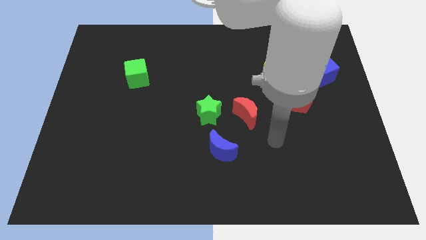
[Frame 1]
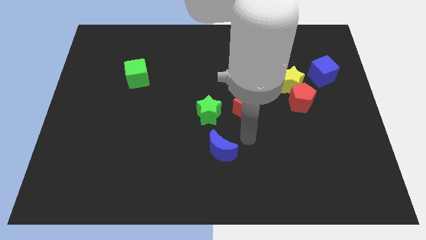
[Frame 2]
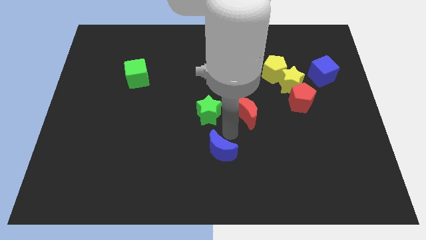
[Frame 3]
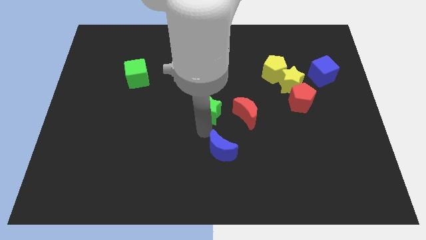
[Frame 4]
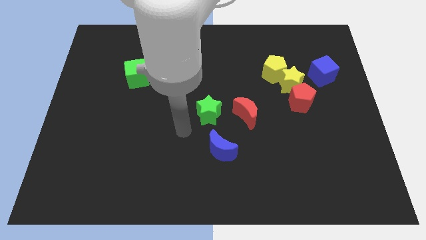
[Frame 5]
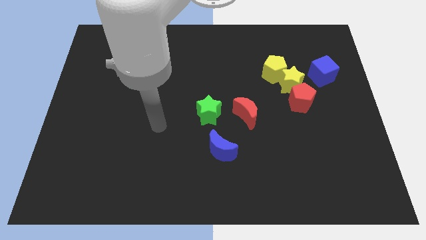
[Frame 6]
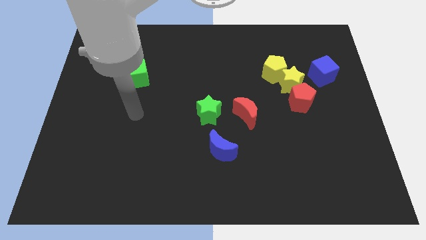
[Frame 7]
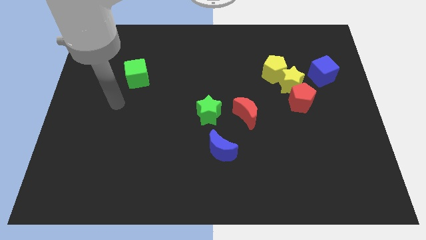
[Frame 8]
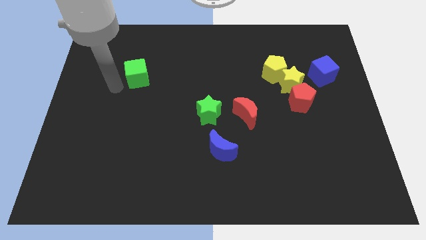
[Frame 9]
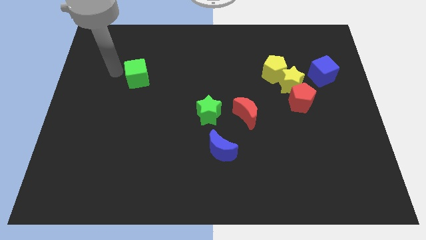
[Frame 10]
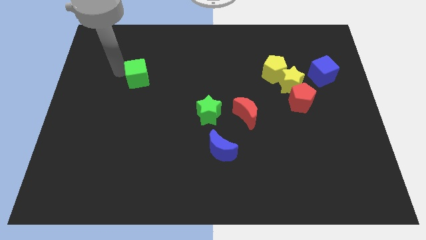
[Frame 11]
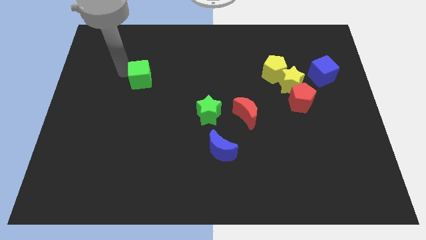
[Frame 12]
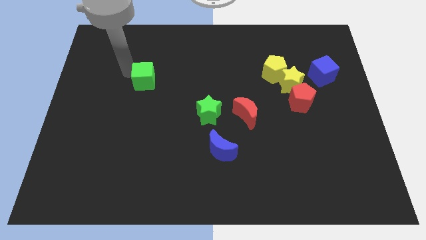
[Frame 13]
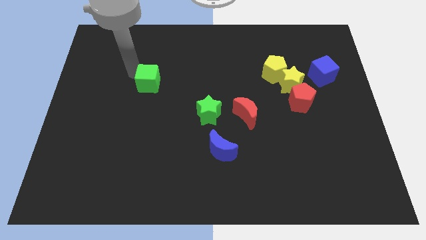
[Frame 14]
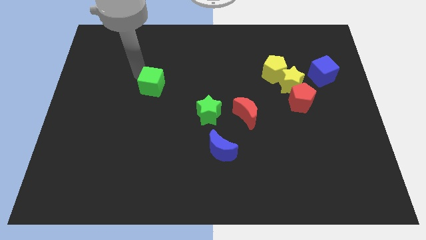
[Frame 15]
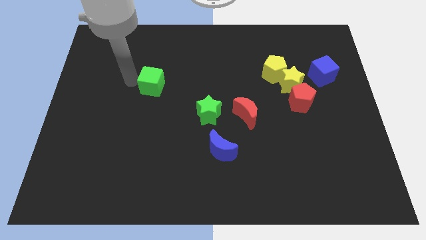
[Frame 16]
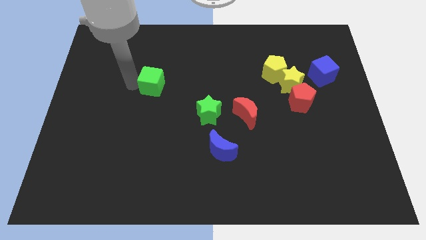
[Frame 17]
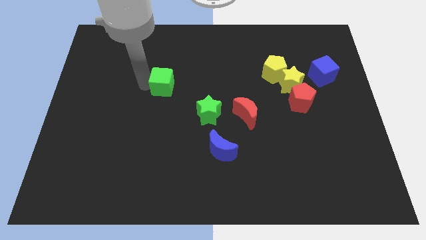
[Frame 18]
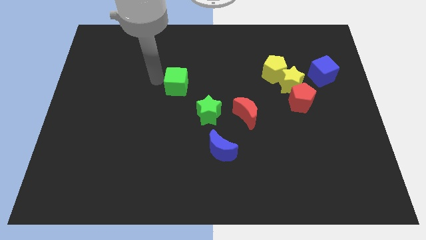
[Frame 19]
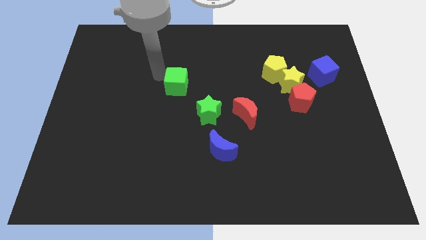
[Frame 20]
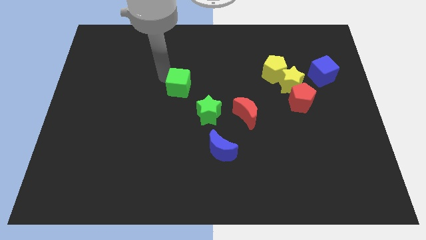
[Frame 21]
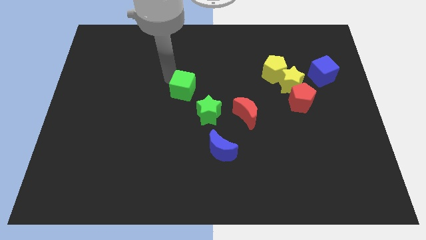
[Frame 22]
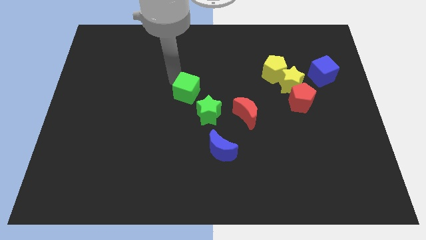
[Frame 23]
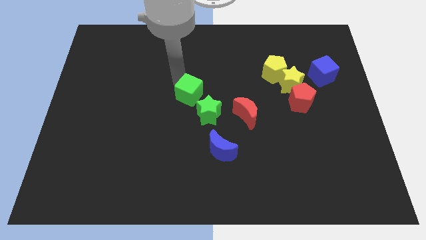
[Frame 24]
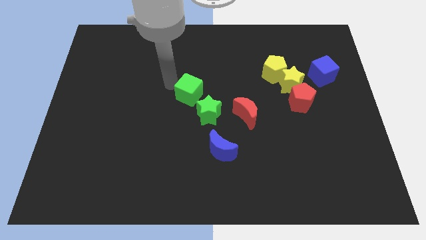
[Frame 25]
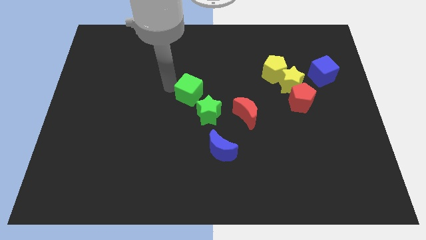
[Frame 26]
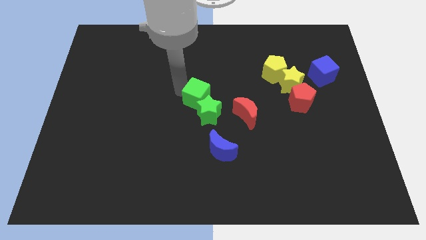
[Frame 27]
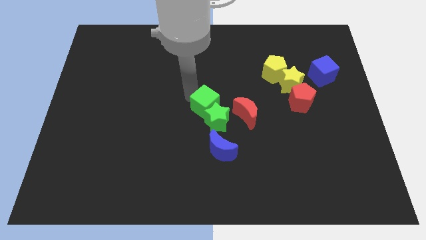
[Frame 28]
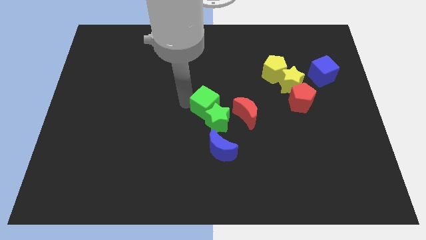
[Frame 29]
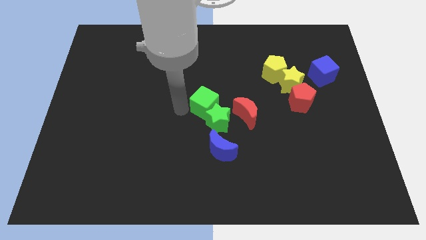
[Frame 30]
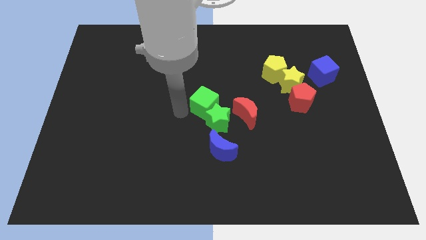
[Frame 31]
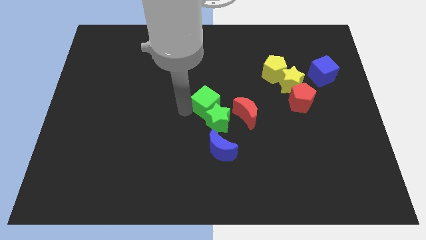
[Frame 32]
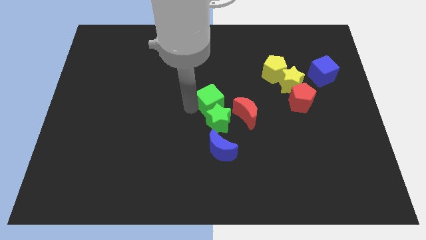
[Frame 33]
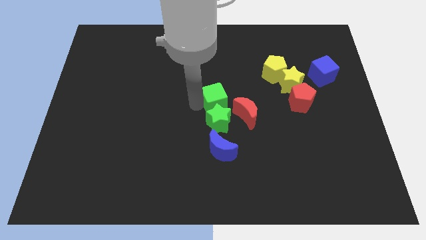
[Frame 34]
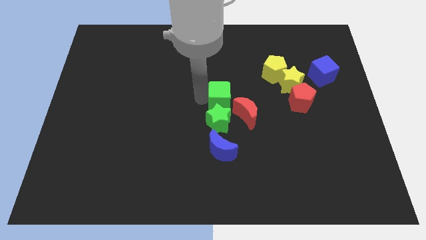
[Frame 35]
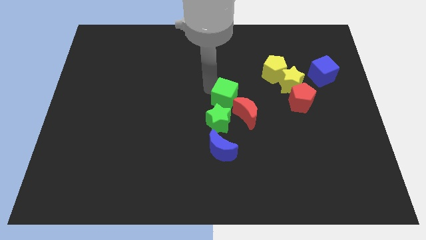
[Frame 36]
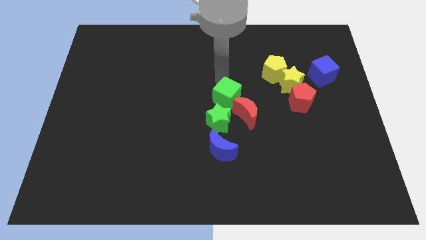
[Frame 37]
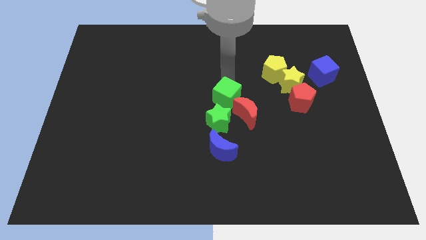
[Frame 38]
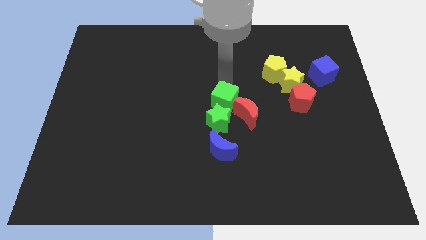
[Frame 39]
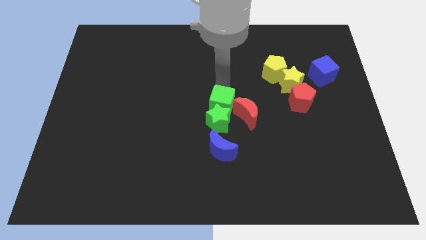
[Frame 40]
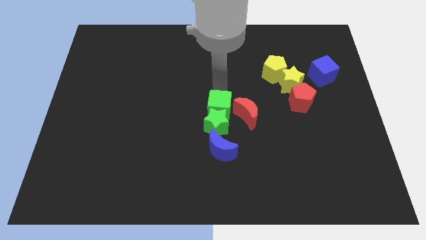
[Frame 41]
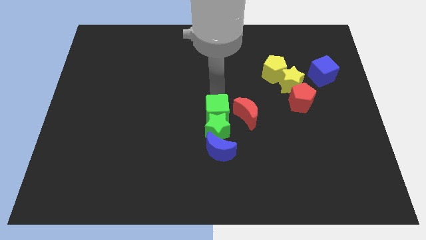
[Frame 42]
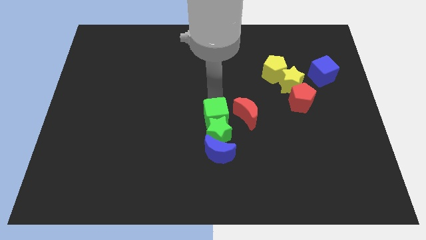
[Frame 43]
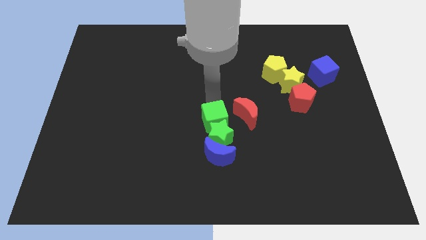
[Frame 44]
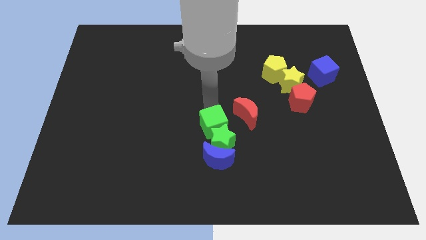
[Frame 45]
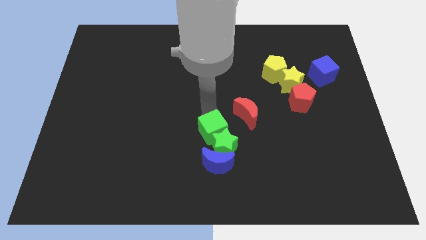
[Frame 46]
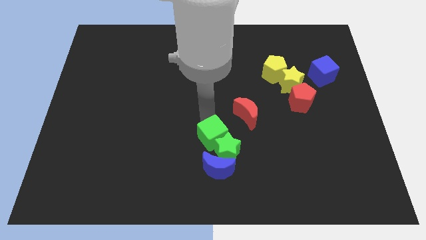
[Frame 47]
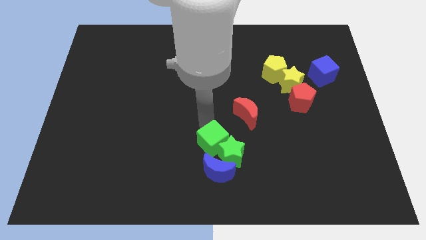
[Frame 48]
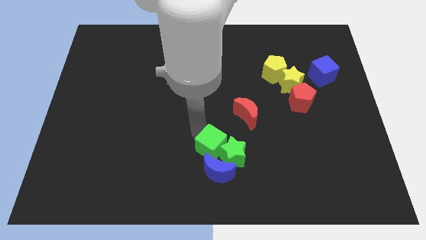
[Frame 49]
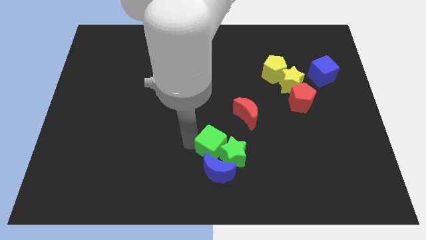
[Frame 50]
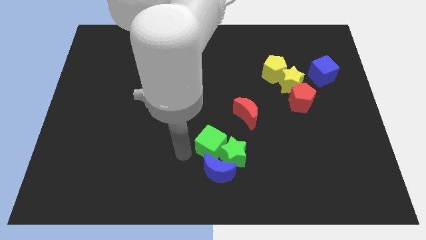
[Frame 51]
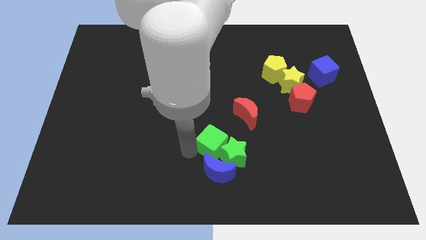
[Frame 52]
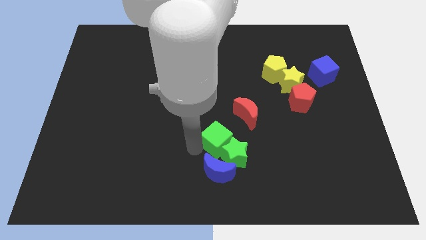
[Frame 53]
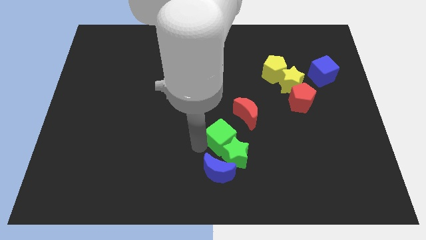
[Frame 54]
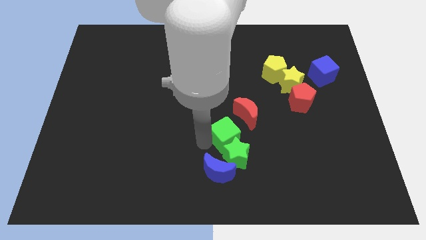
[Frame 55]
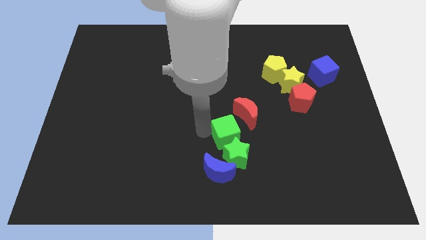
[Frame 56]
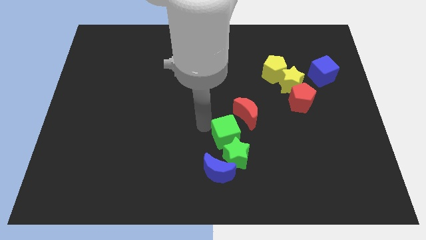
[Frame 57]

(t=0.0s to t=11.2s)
slide the green cube below the red moon

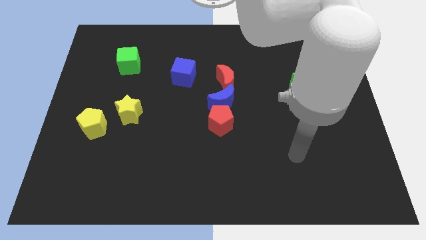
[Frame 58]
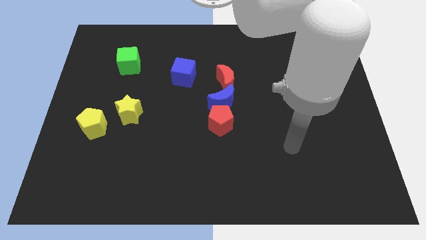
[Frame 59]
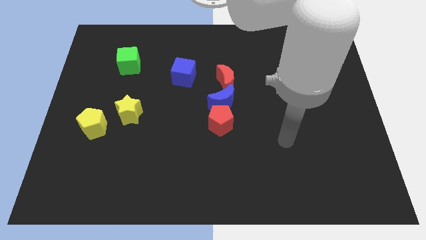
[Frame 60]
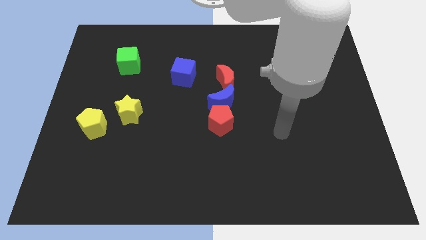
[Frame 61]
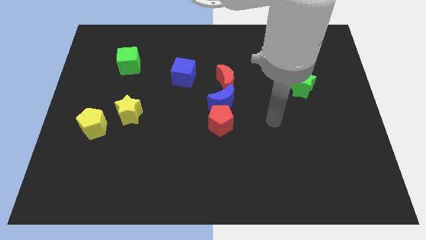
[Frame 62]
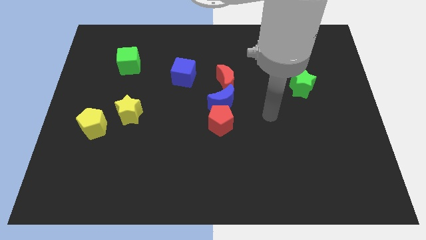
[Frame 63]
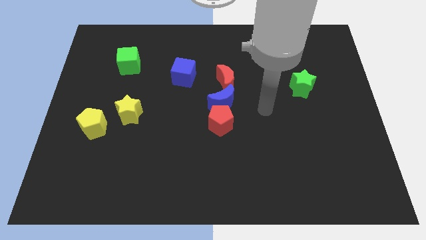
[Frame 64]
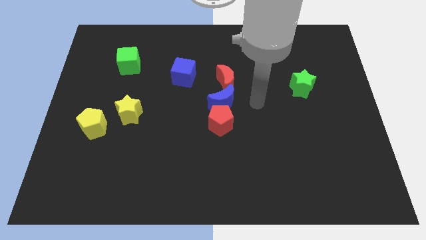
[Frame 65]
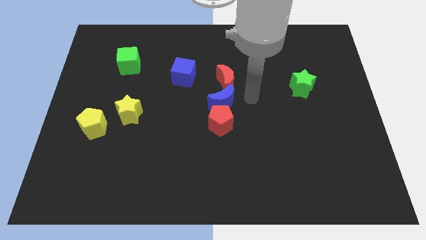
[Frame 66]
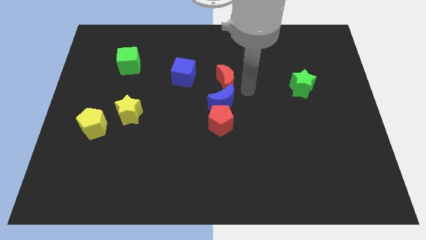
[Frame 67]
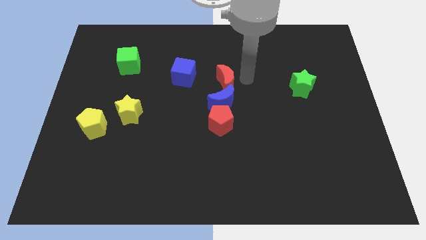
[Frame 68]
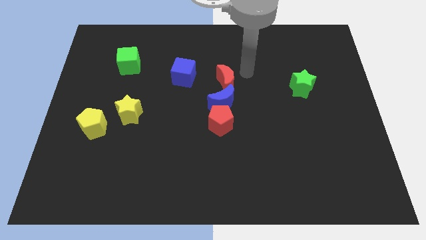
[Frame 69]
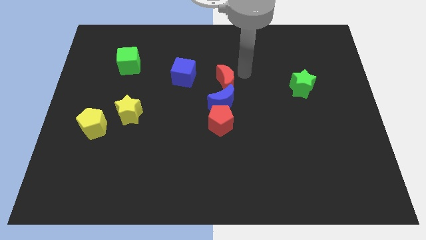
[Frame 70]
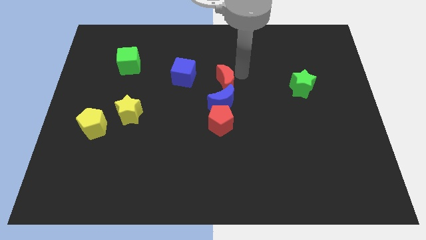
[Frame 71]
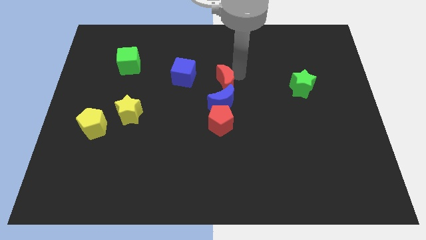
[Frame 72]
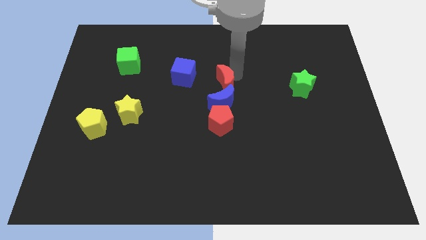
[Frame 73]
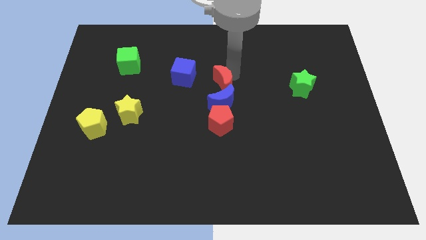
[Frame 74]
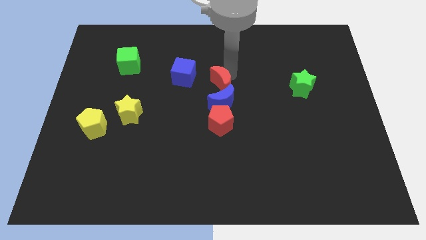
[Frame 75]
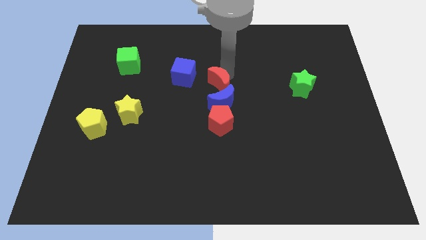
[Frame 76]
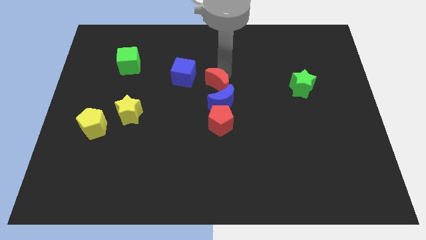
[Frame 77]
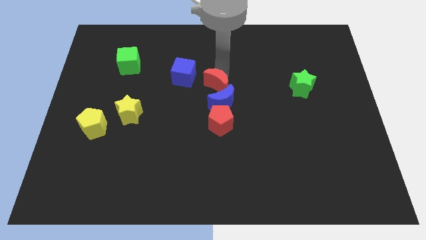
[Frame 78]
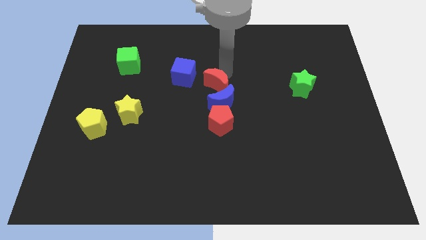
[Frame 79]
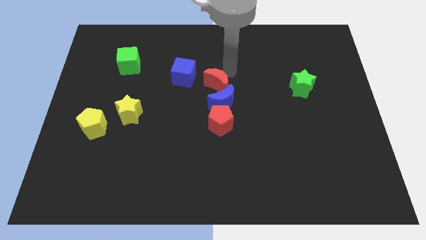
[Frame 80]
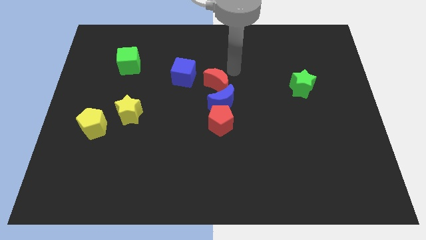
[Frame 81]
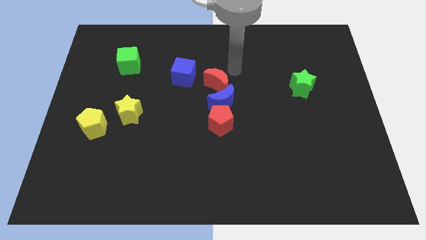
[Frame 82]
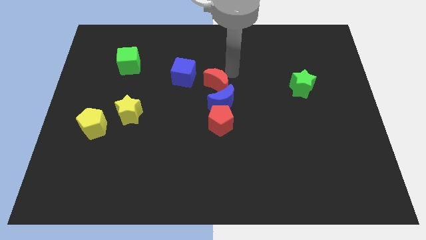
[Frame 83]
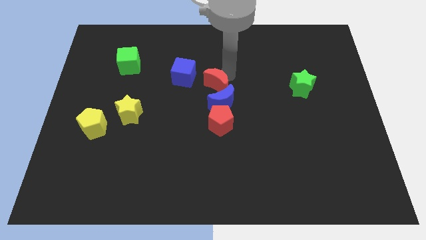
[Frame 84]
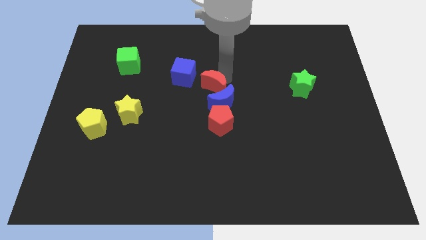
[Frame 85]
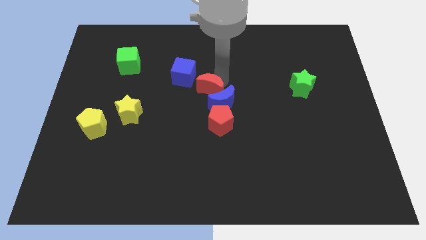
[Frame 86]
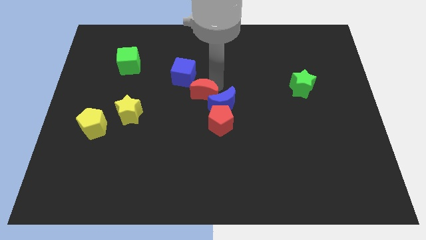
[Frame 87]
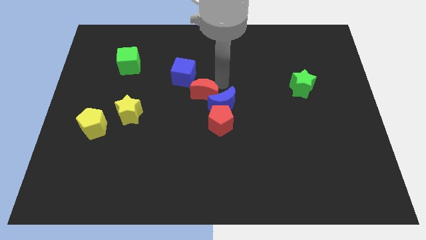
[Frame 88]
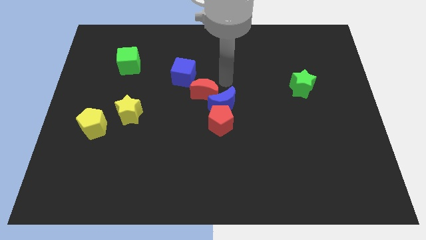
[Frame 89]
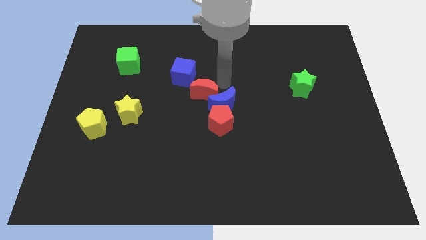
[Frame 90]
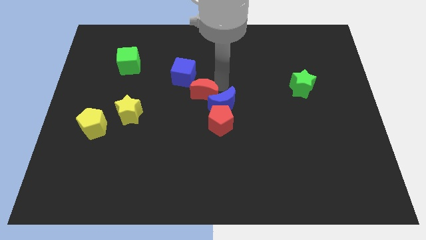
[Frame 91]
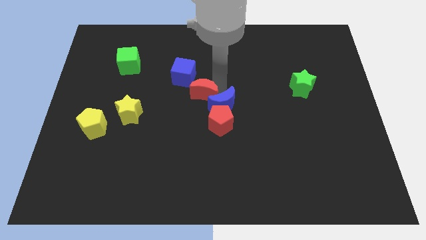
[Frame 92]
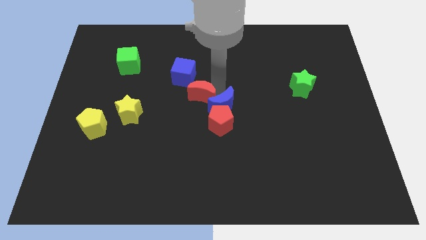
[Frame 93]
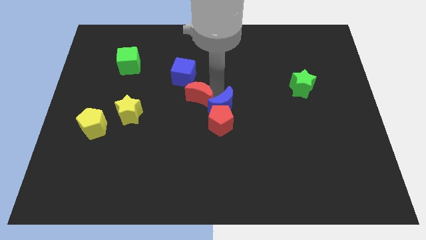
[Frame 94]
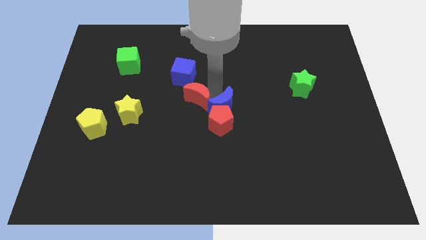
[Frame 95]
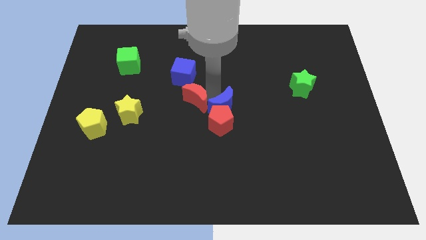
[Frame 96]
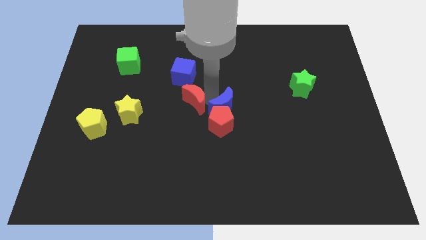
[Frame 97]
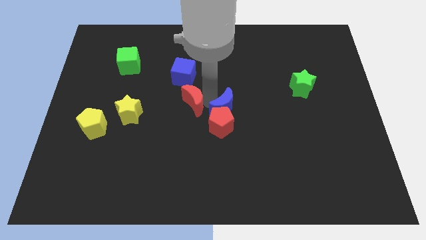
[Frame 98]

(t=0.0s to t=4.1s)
push the red moon to the right side of the yellow star
